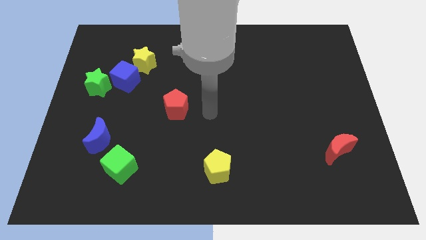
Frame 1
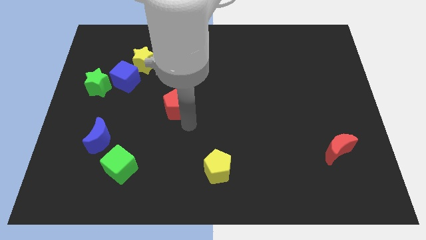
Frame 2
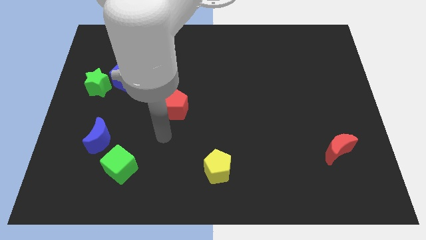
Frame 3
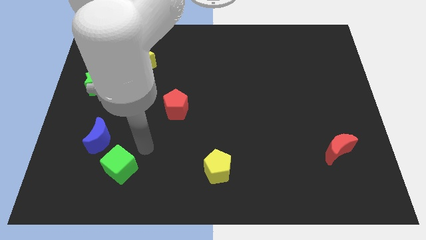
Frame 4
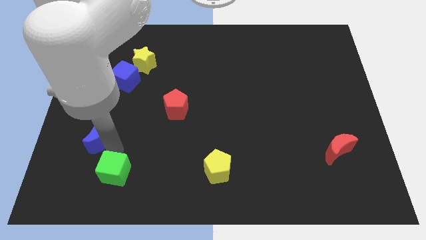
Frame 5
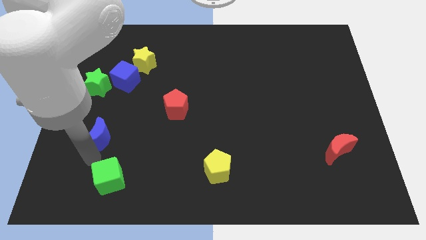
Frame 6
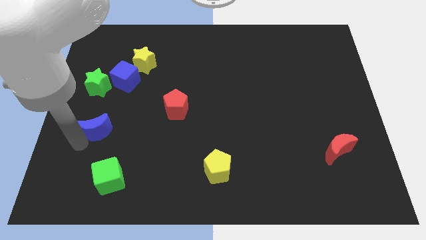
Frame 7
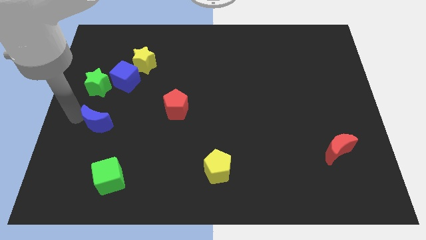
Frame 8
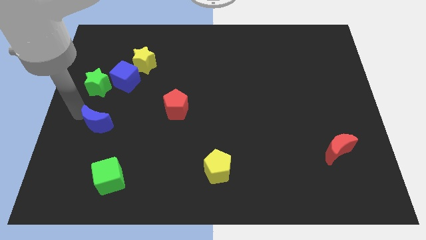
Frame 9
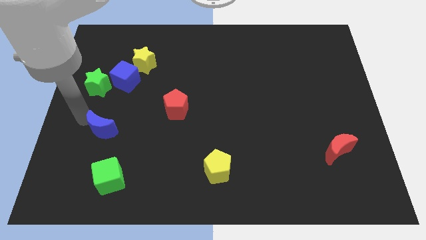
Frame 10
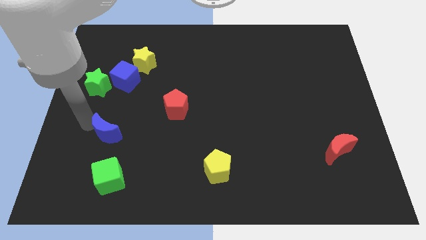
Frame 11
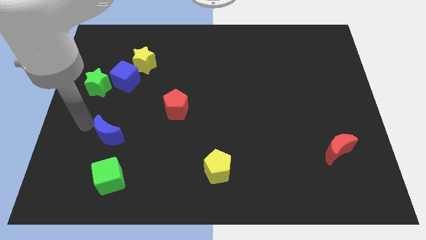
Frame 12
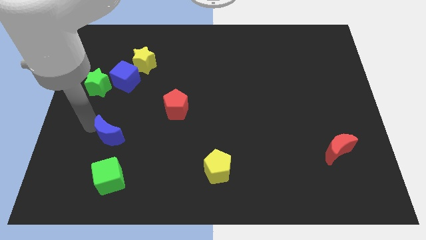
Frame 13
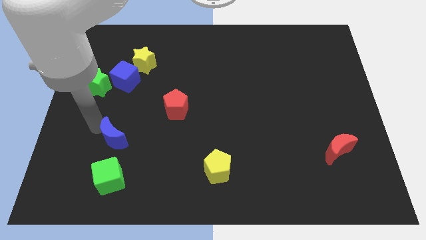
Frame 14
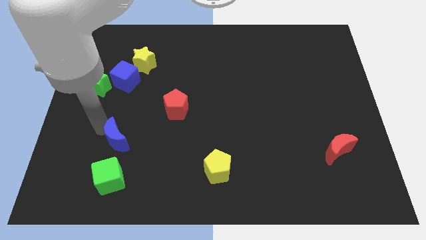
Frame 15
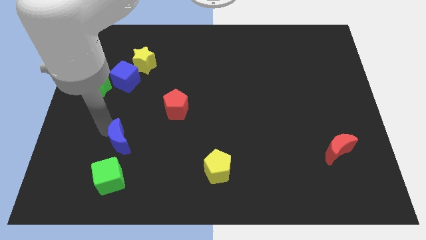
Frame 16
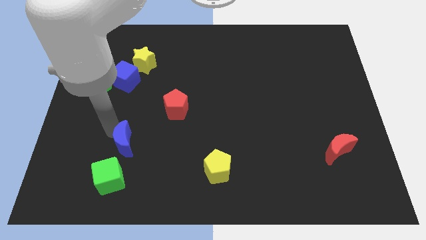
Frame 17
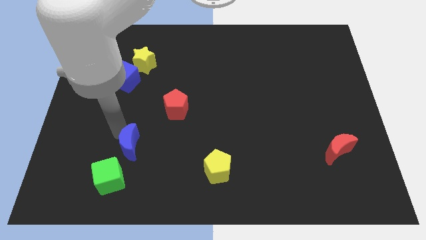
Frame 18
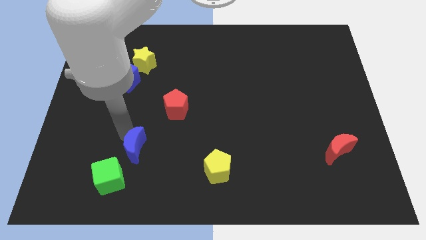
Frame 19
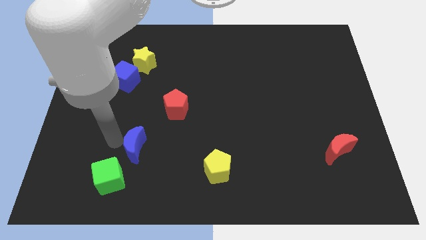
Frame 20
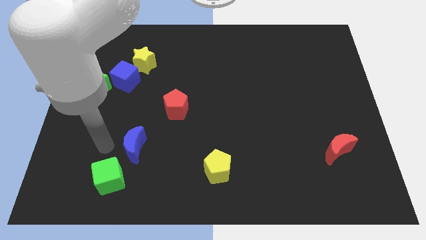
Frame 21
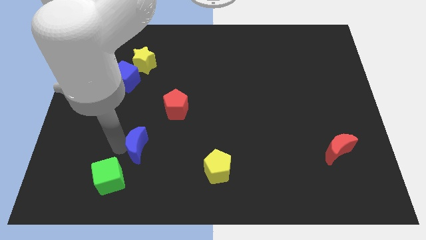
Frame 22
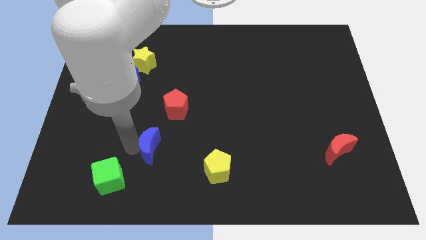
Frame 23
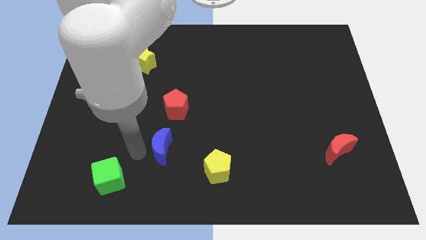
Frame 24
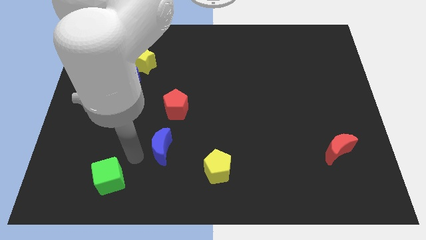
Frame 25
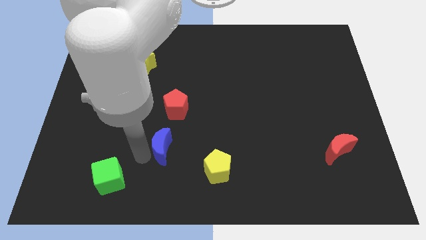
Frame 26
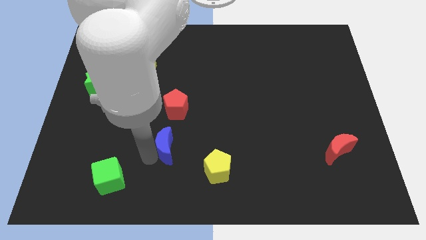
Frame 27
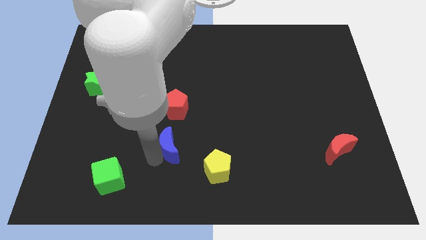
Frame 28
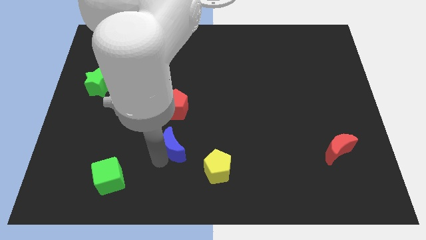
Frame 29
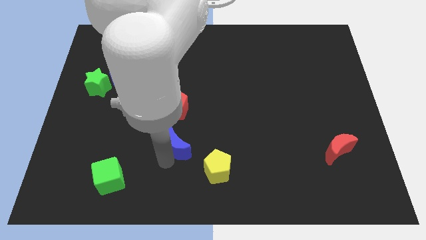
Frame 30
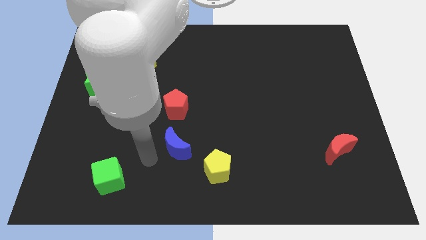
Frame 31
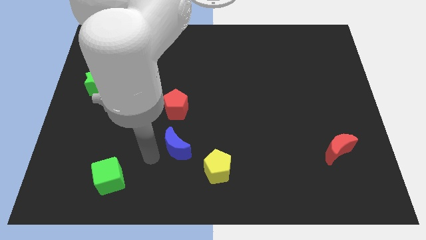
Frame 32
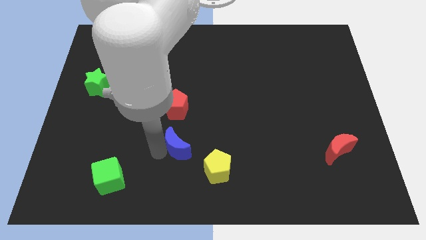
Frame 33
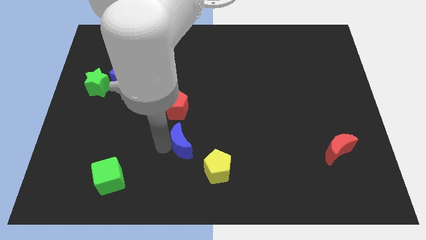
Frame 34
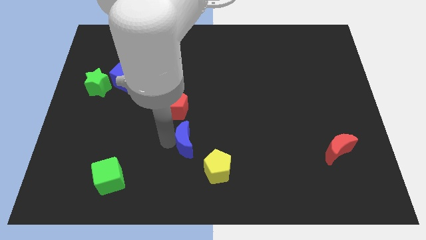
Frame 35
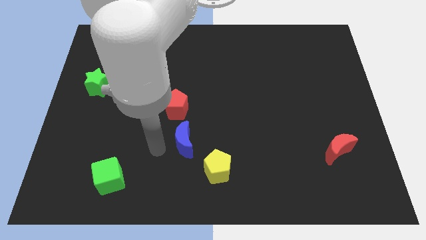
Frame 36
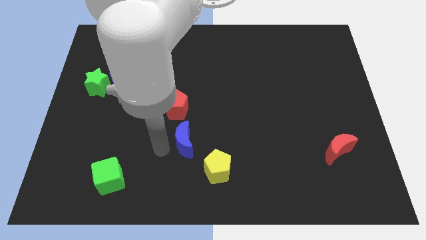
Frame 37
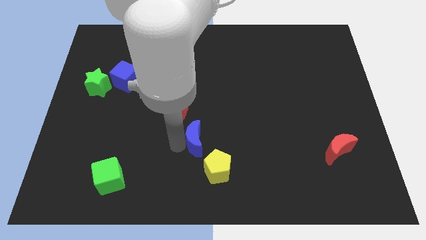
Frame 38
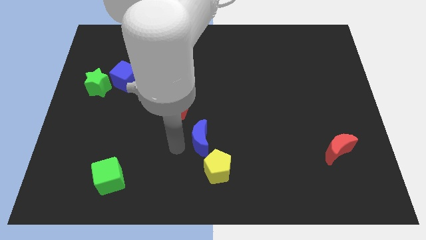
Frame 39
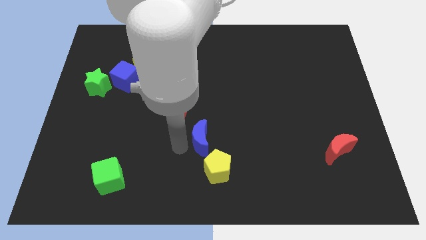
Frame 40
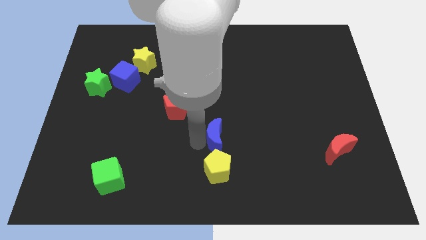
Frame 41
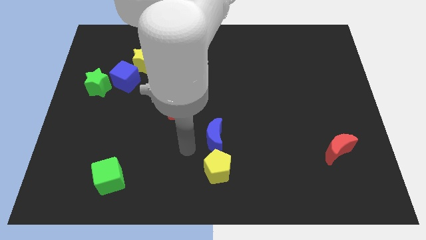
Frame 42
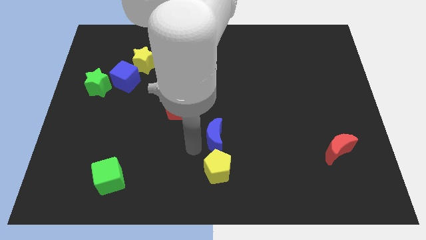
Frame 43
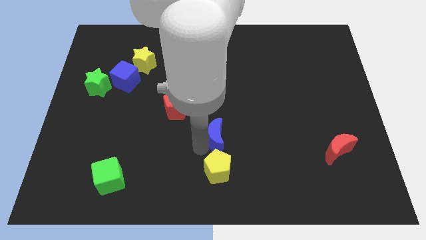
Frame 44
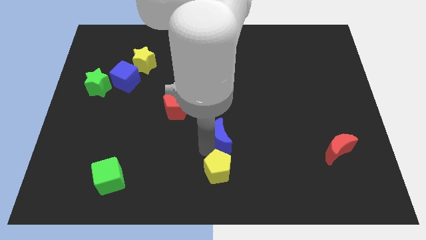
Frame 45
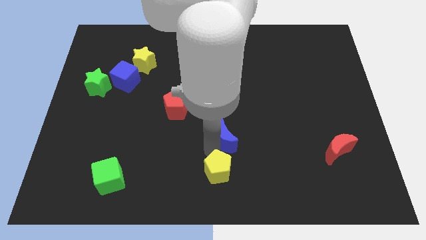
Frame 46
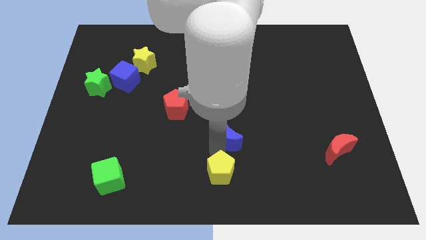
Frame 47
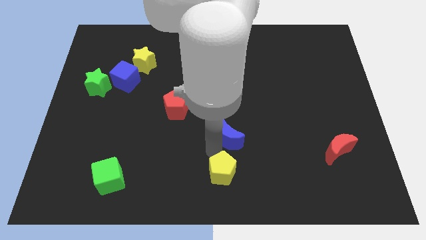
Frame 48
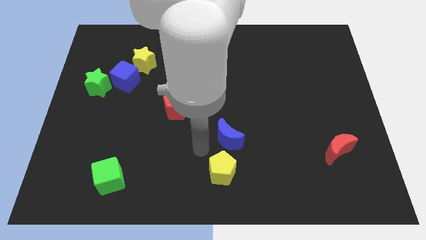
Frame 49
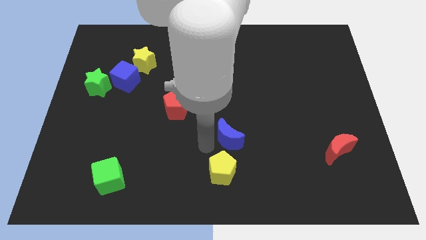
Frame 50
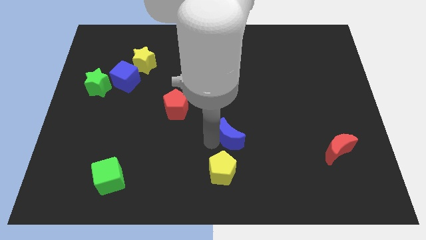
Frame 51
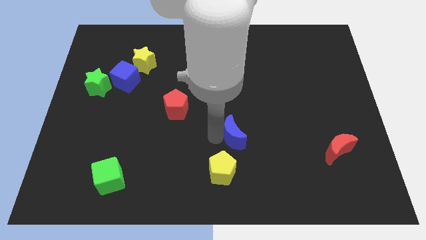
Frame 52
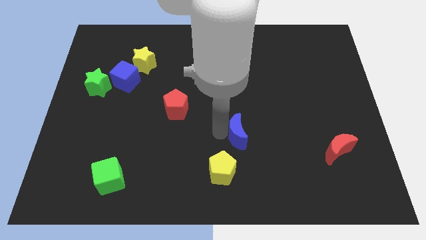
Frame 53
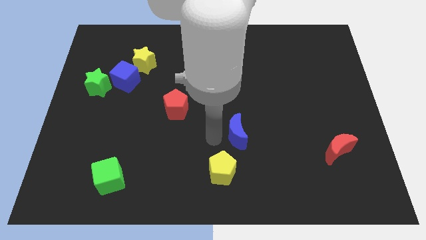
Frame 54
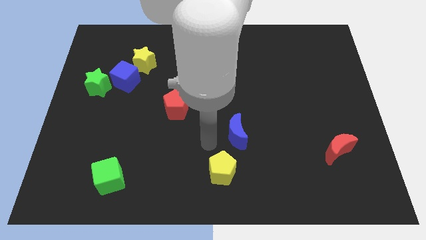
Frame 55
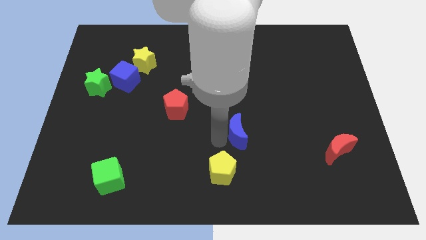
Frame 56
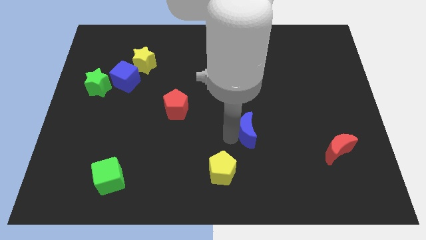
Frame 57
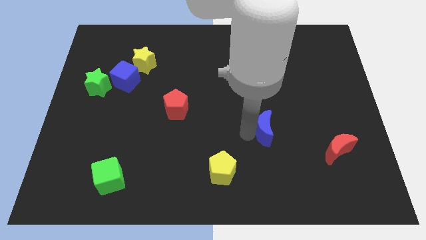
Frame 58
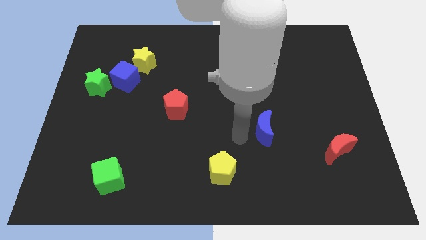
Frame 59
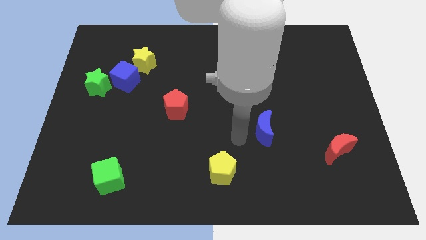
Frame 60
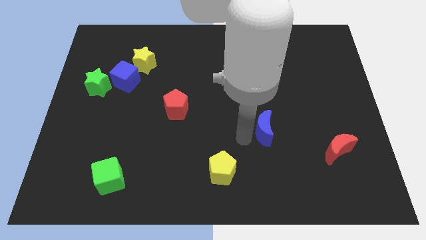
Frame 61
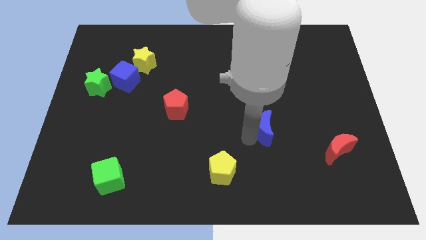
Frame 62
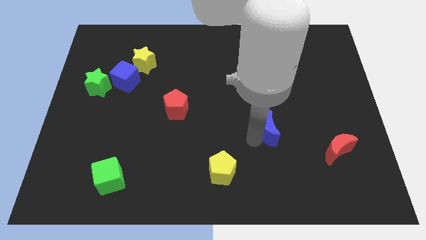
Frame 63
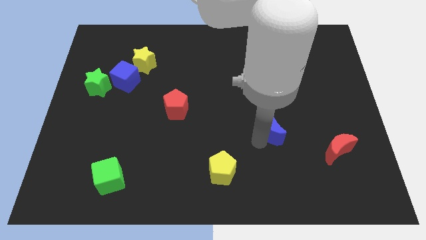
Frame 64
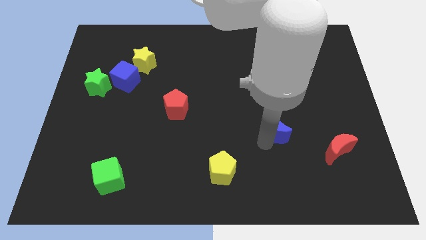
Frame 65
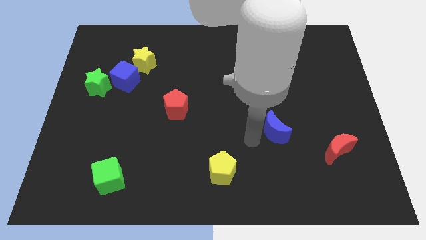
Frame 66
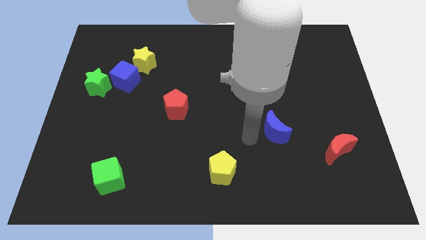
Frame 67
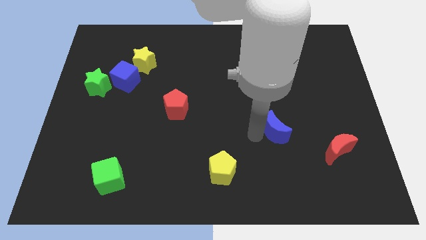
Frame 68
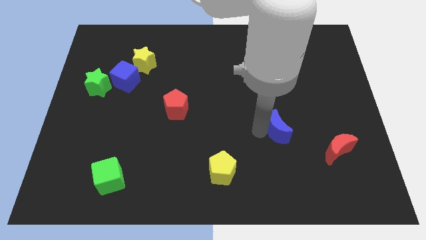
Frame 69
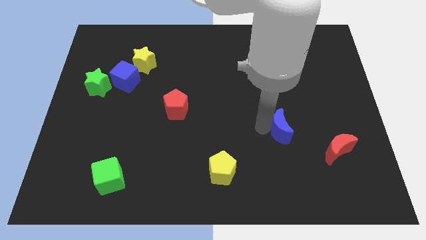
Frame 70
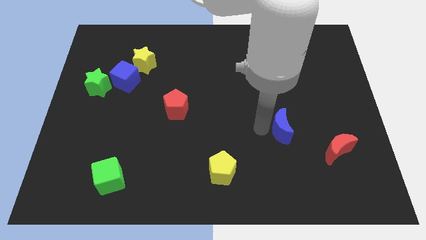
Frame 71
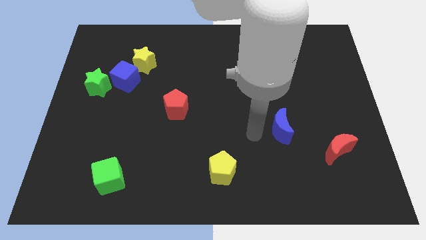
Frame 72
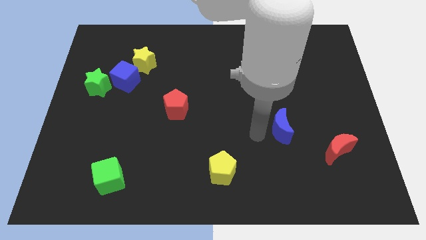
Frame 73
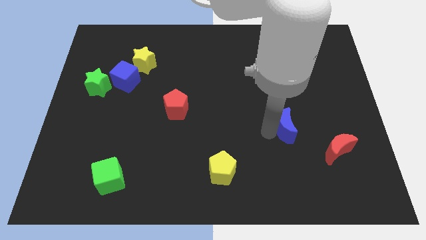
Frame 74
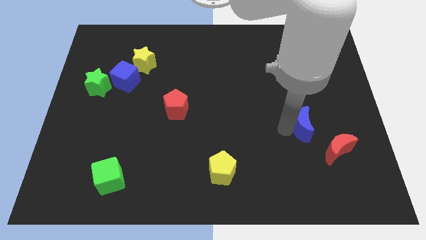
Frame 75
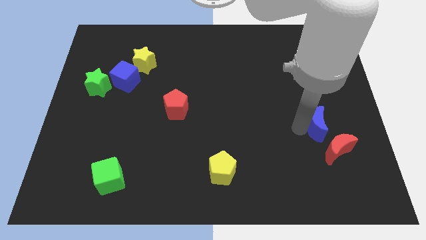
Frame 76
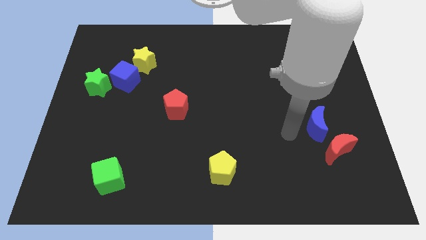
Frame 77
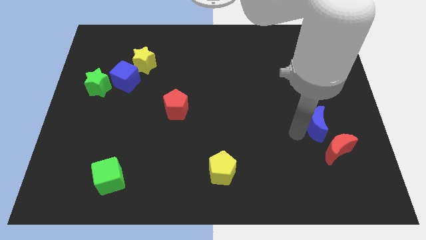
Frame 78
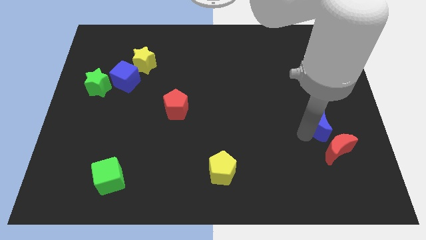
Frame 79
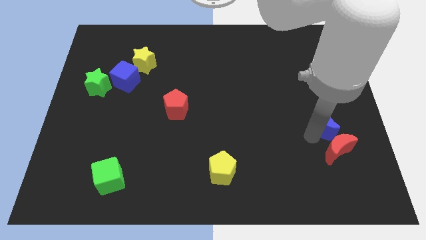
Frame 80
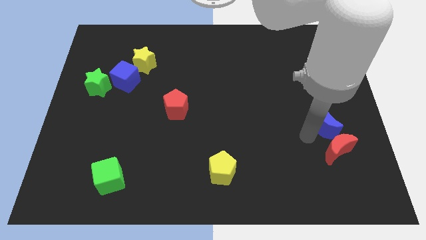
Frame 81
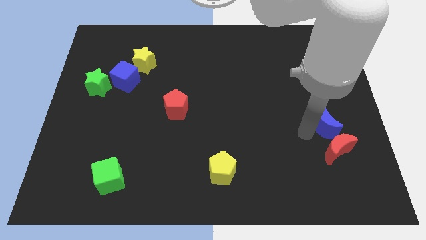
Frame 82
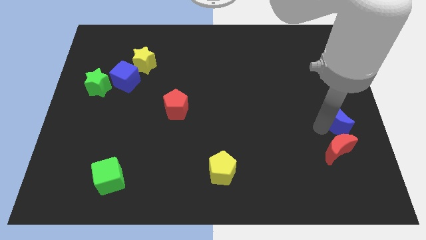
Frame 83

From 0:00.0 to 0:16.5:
push the blue moon to the right side of the board
